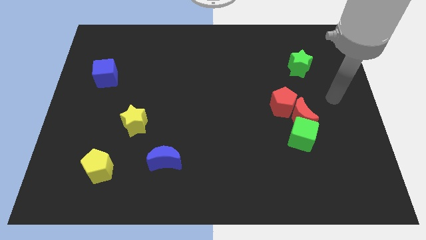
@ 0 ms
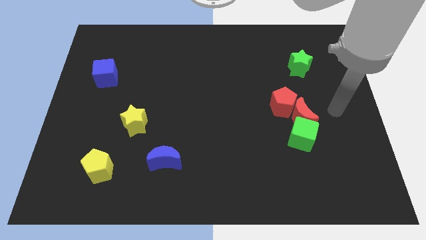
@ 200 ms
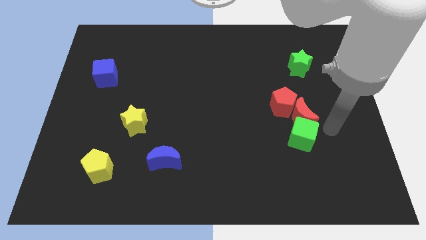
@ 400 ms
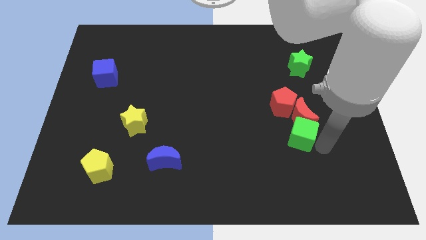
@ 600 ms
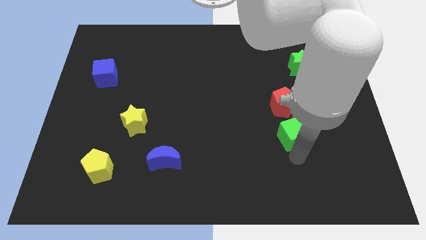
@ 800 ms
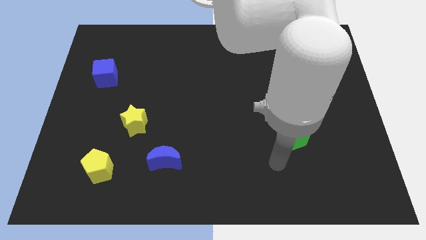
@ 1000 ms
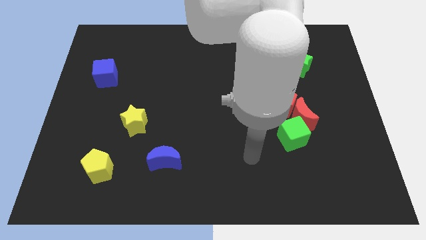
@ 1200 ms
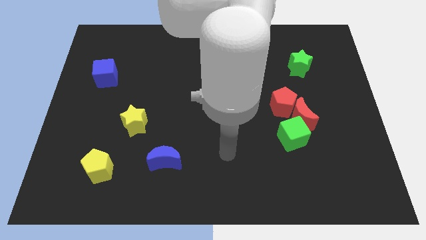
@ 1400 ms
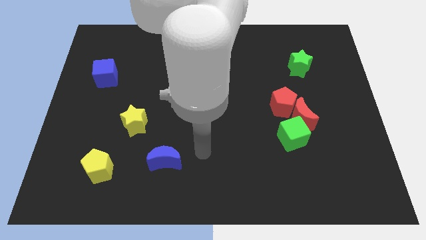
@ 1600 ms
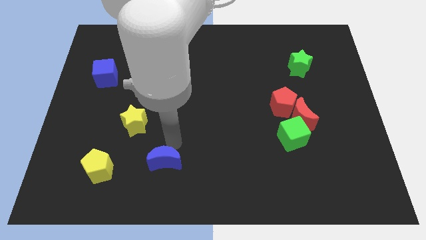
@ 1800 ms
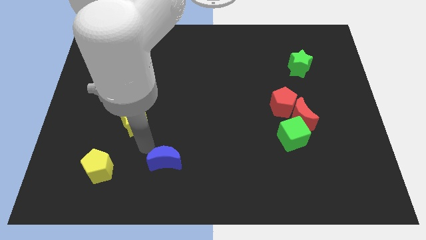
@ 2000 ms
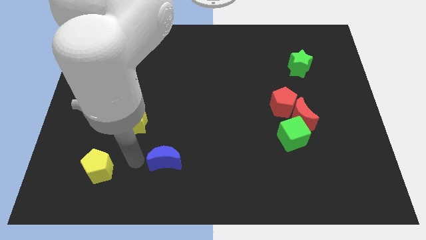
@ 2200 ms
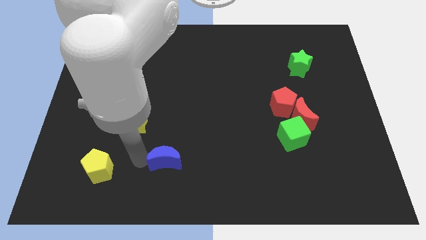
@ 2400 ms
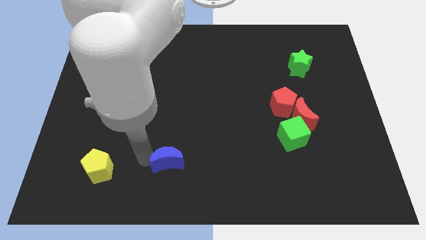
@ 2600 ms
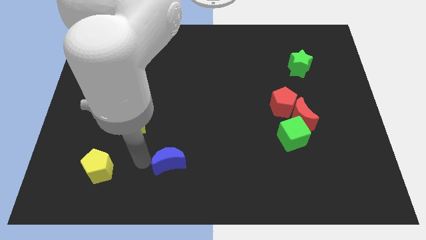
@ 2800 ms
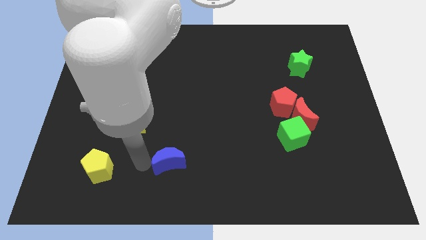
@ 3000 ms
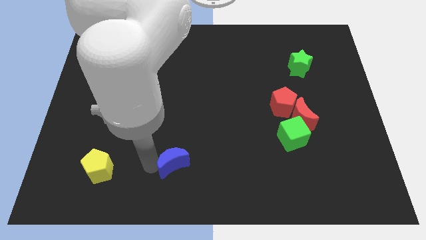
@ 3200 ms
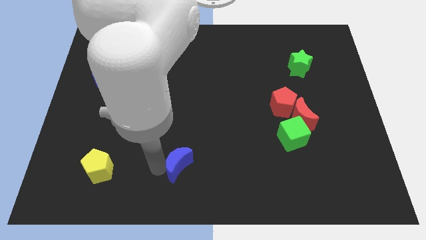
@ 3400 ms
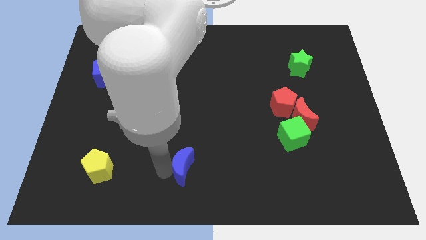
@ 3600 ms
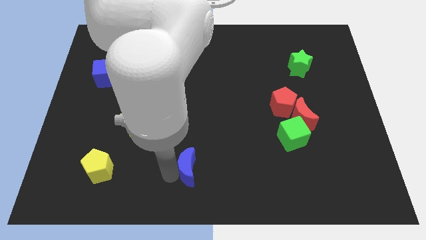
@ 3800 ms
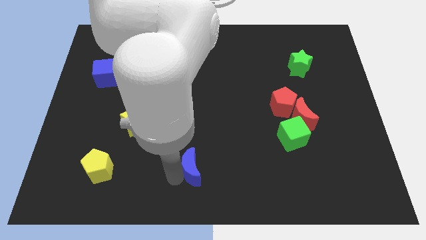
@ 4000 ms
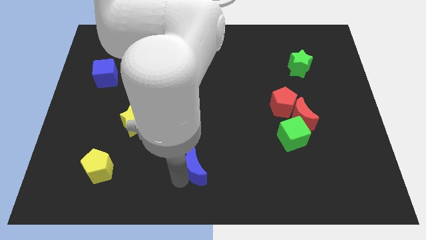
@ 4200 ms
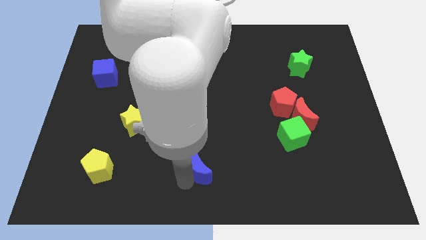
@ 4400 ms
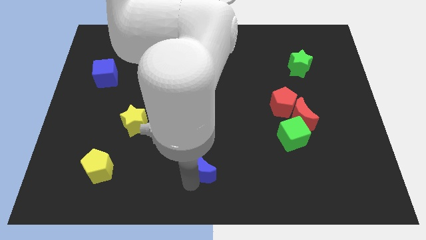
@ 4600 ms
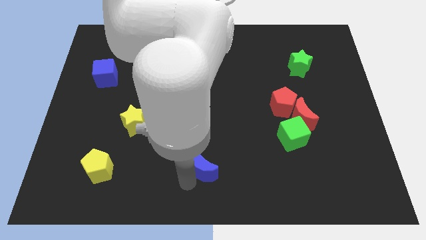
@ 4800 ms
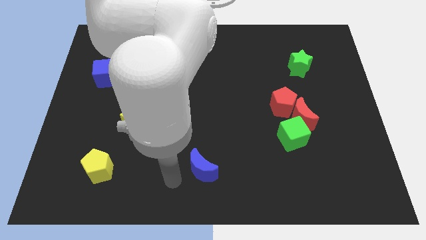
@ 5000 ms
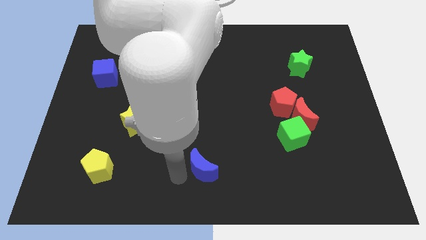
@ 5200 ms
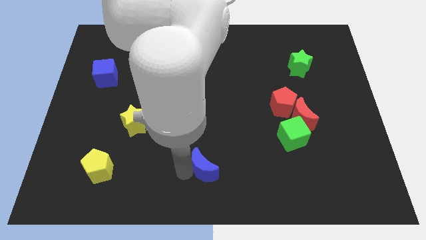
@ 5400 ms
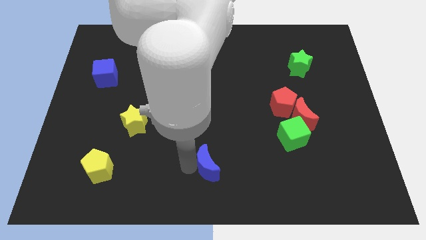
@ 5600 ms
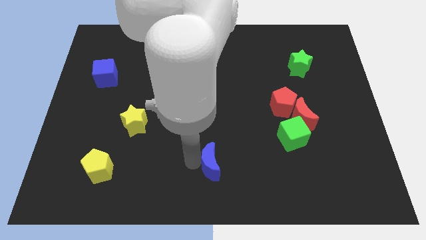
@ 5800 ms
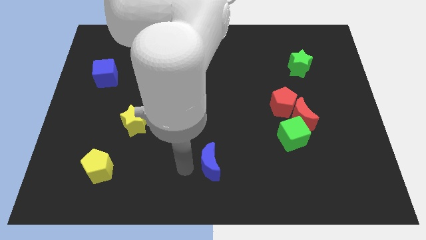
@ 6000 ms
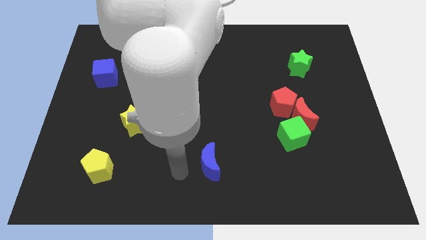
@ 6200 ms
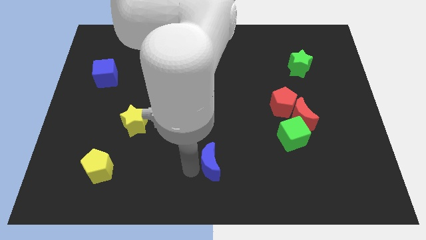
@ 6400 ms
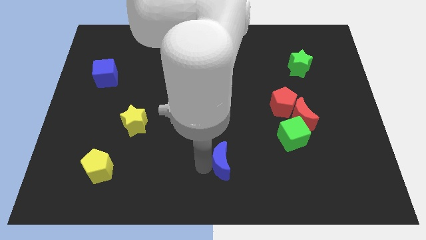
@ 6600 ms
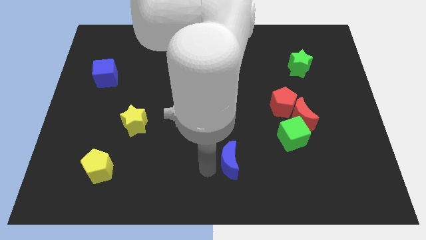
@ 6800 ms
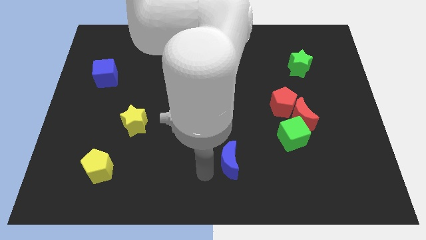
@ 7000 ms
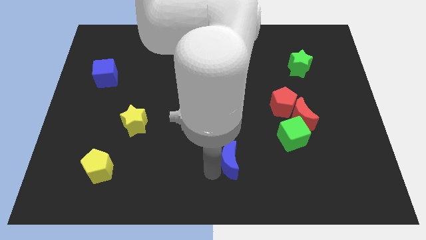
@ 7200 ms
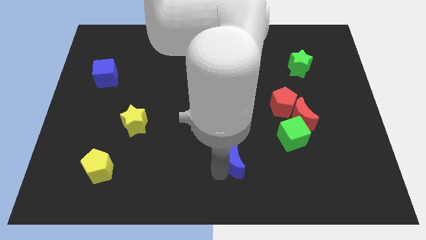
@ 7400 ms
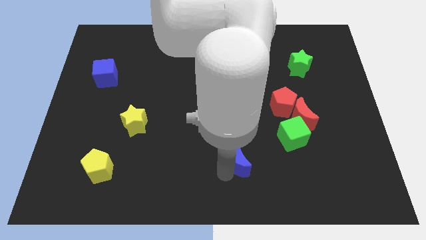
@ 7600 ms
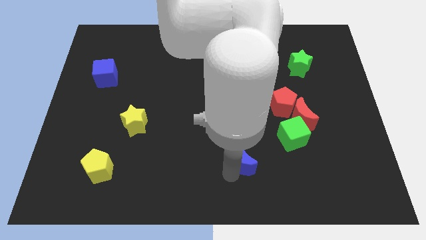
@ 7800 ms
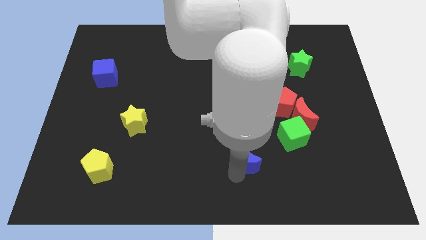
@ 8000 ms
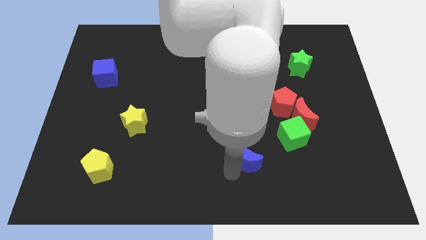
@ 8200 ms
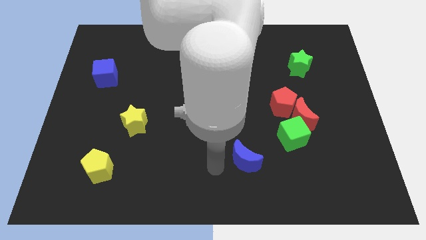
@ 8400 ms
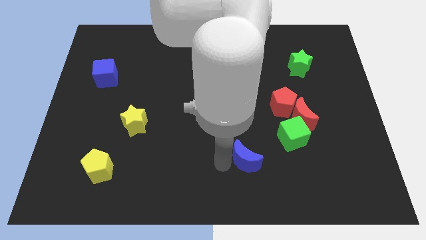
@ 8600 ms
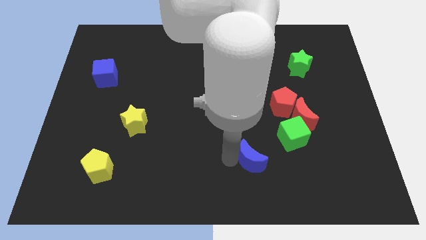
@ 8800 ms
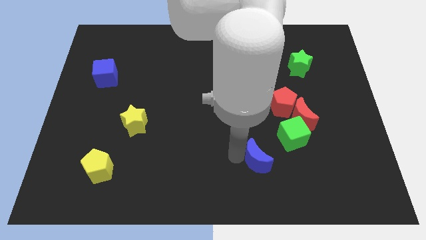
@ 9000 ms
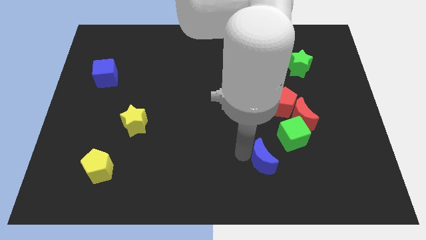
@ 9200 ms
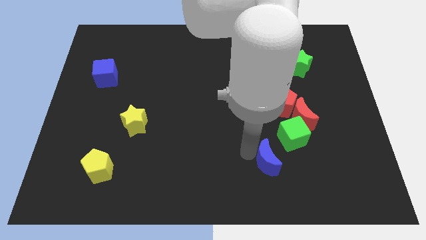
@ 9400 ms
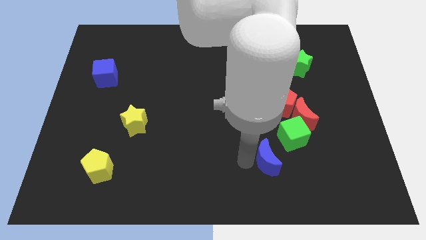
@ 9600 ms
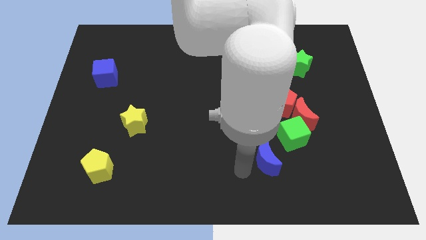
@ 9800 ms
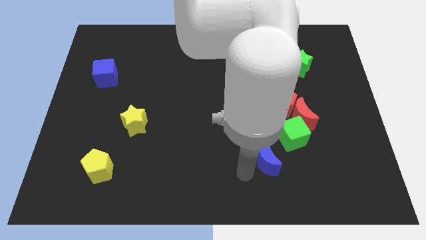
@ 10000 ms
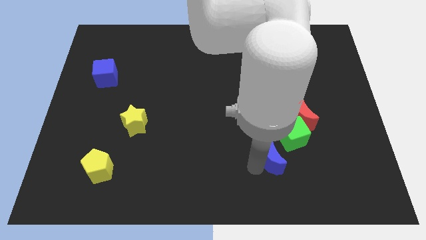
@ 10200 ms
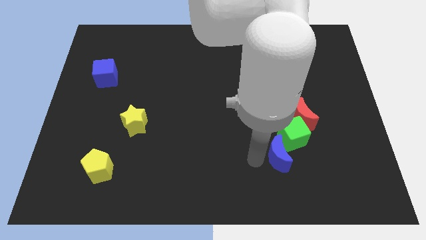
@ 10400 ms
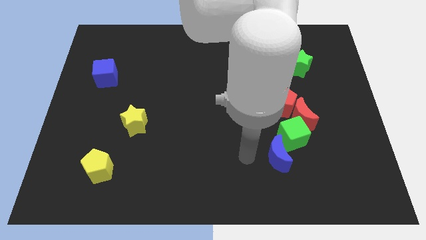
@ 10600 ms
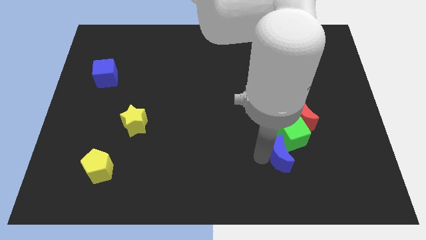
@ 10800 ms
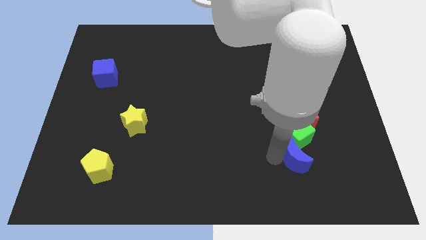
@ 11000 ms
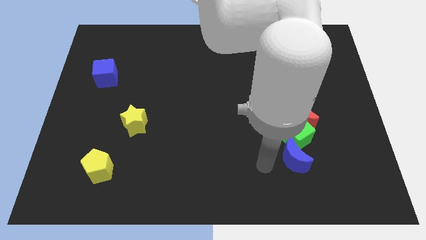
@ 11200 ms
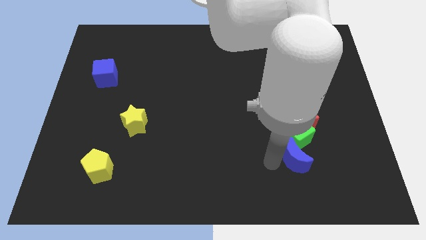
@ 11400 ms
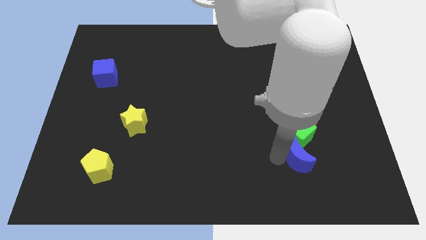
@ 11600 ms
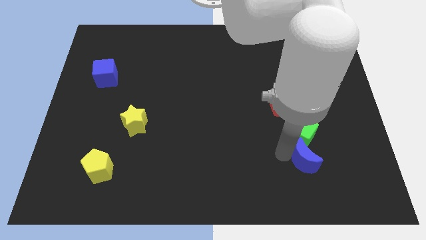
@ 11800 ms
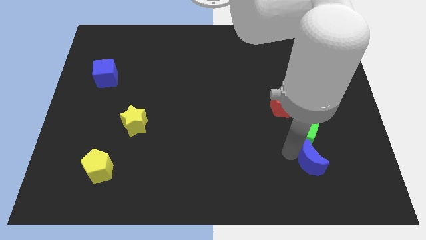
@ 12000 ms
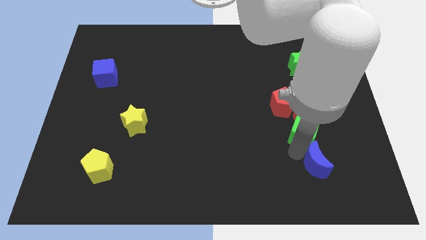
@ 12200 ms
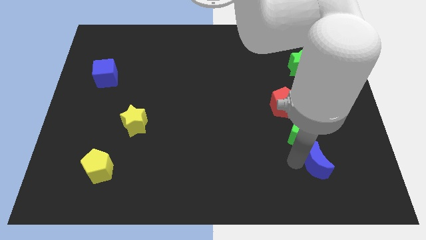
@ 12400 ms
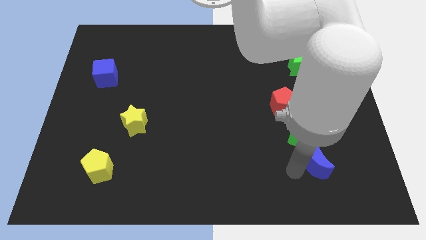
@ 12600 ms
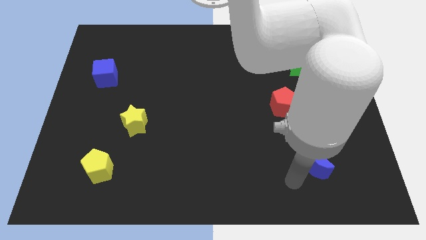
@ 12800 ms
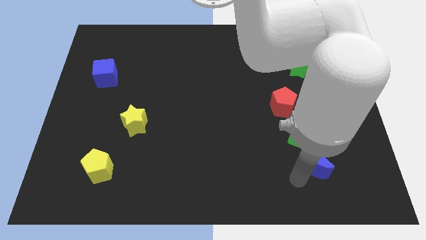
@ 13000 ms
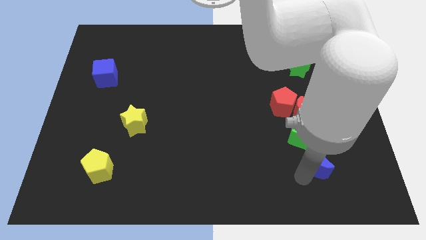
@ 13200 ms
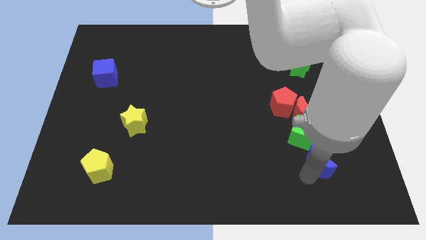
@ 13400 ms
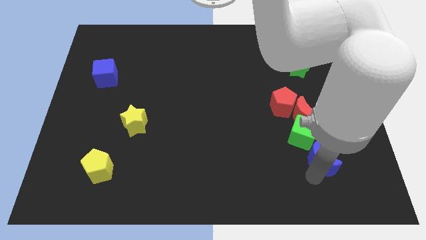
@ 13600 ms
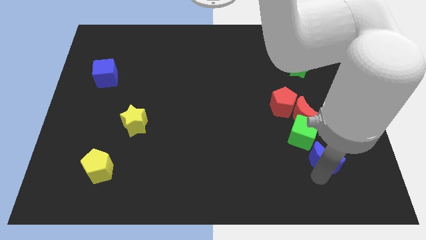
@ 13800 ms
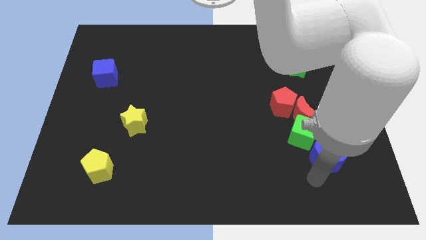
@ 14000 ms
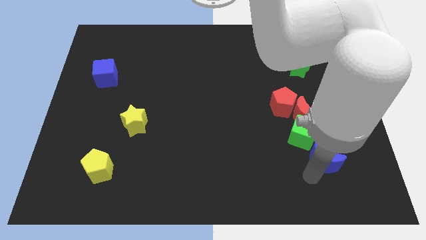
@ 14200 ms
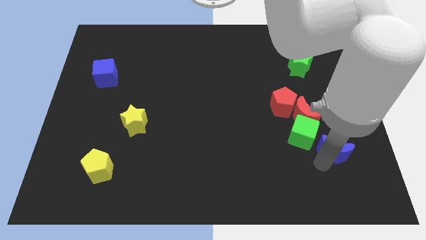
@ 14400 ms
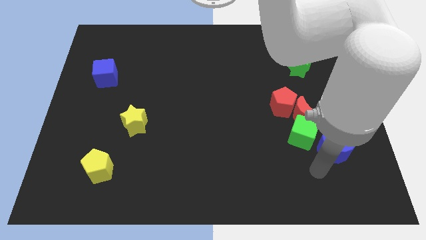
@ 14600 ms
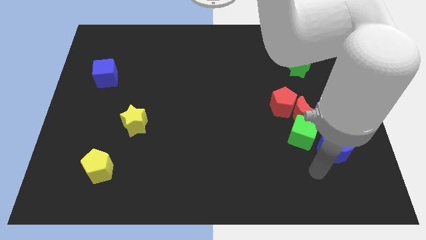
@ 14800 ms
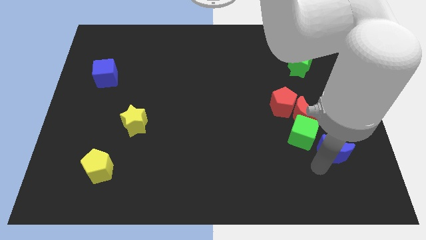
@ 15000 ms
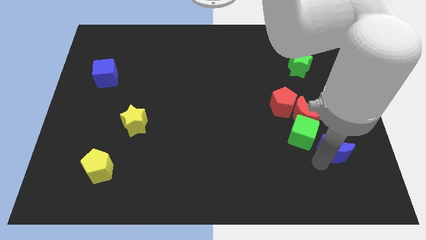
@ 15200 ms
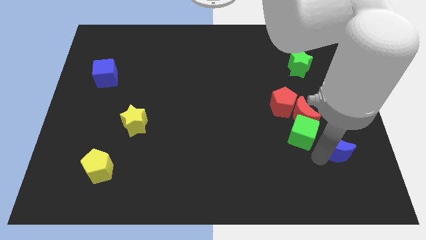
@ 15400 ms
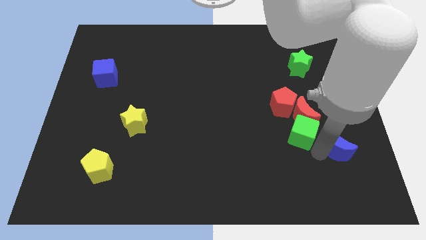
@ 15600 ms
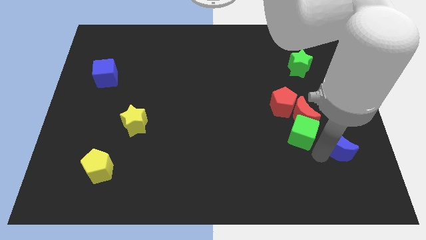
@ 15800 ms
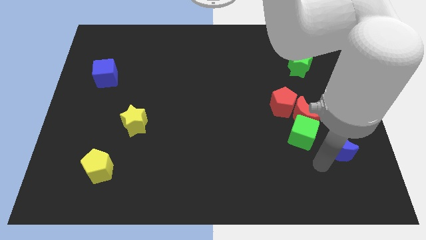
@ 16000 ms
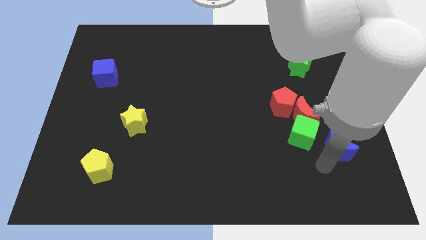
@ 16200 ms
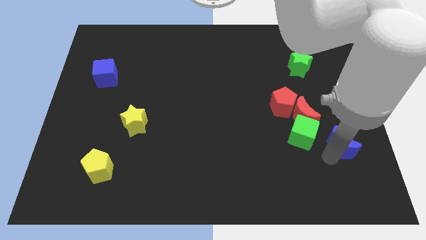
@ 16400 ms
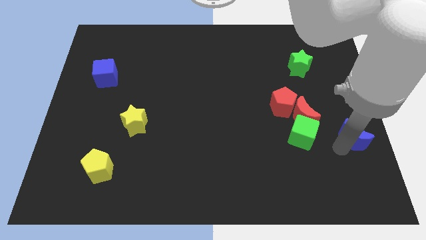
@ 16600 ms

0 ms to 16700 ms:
put the blue moon to the center right
